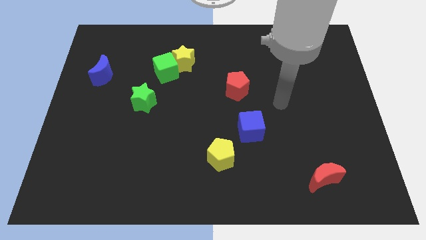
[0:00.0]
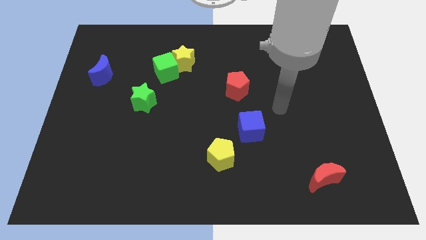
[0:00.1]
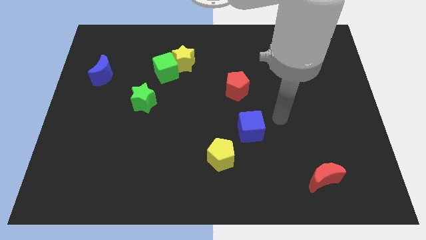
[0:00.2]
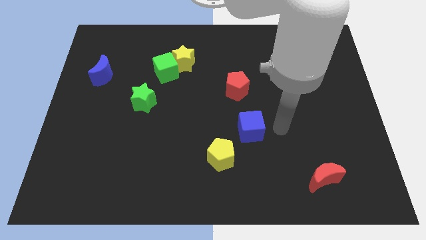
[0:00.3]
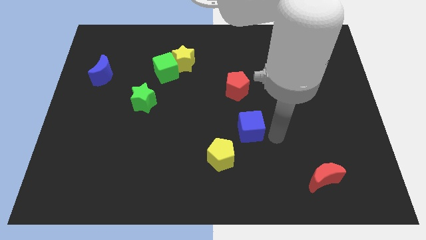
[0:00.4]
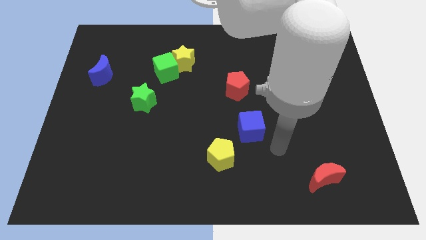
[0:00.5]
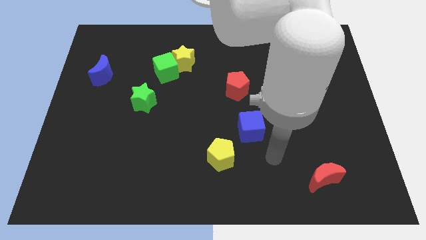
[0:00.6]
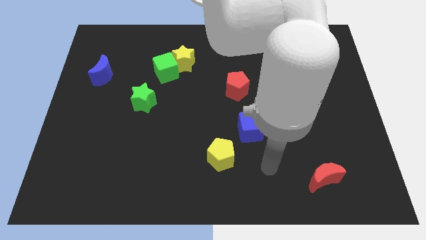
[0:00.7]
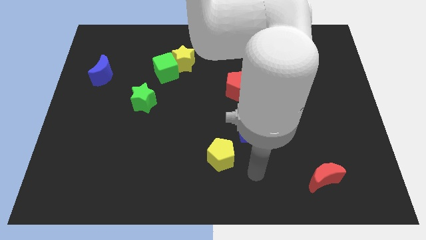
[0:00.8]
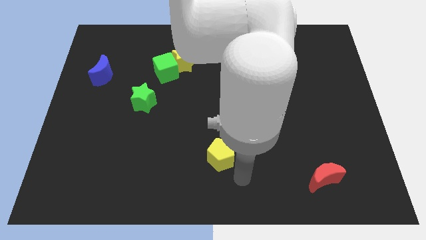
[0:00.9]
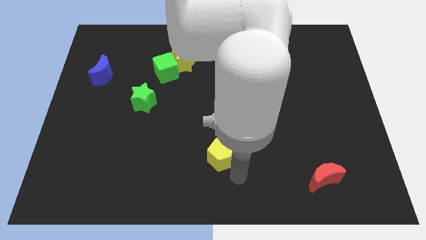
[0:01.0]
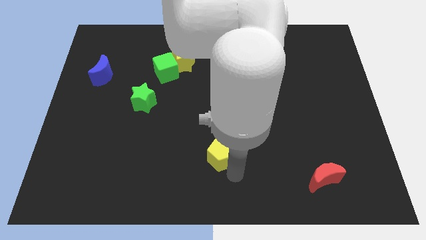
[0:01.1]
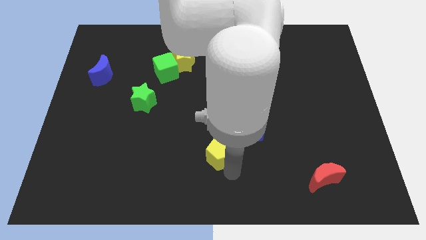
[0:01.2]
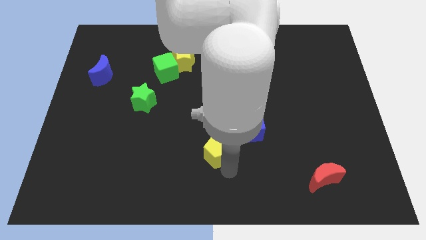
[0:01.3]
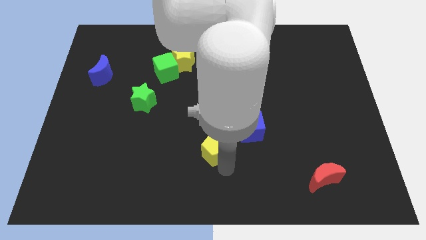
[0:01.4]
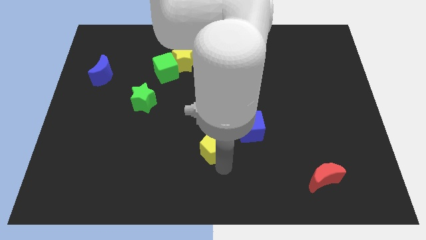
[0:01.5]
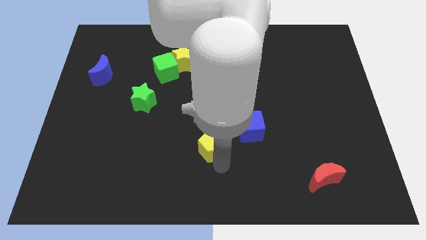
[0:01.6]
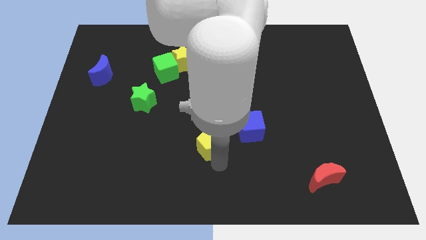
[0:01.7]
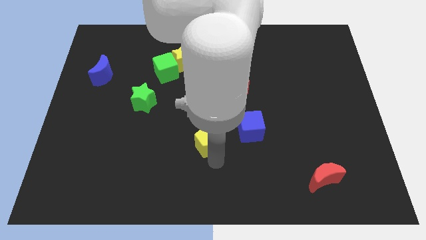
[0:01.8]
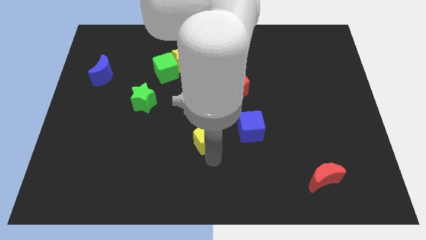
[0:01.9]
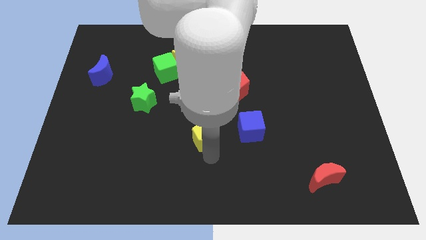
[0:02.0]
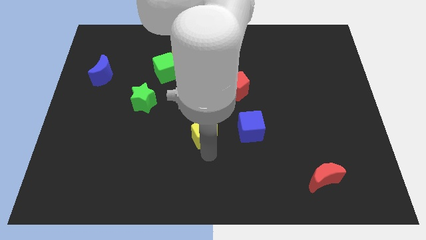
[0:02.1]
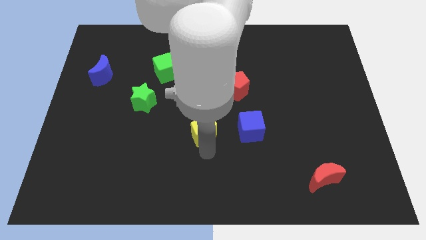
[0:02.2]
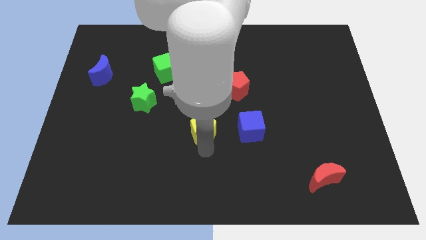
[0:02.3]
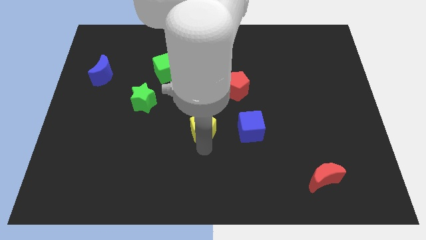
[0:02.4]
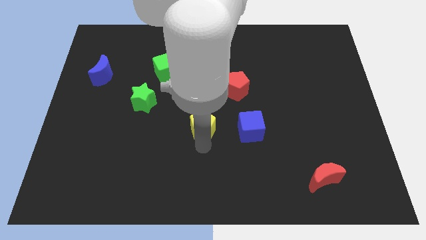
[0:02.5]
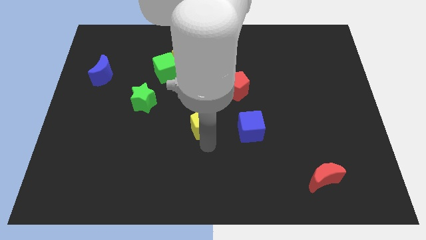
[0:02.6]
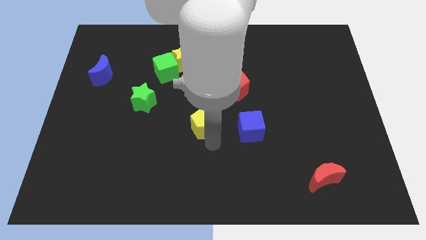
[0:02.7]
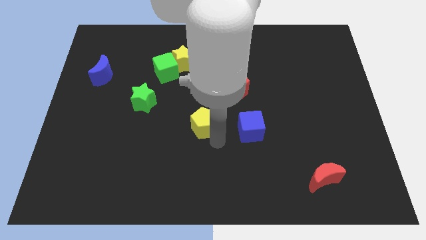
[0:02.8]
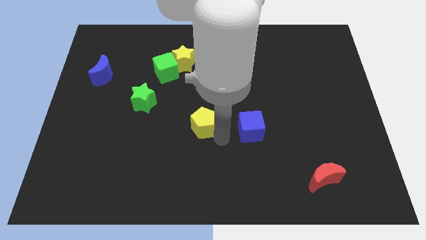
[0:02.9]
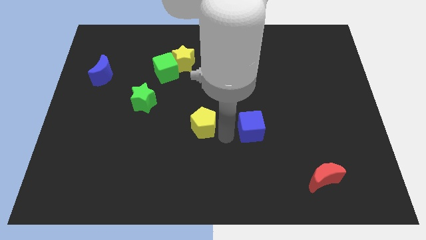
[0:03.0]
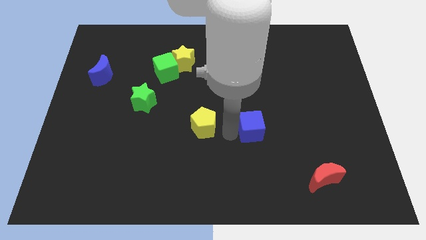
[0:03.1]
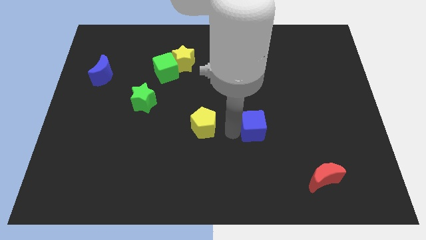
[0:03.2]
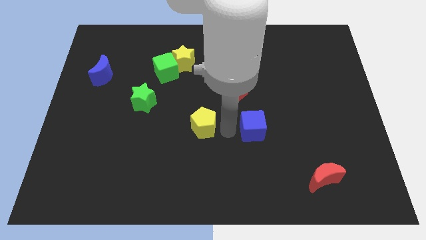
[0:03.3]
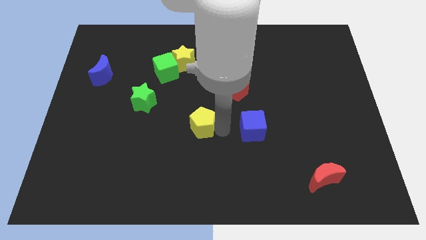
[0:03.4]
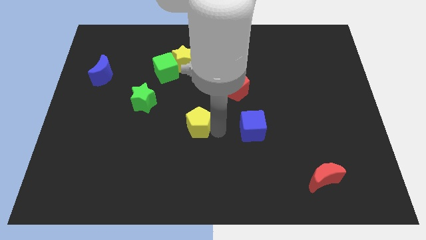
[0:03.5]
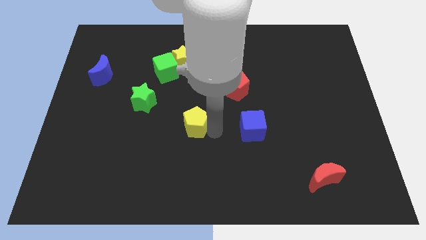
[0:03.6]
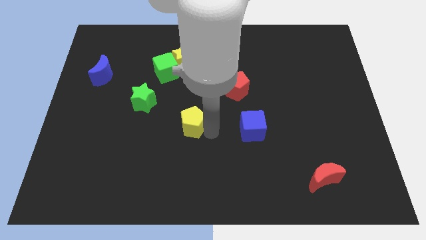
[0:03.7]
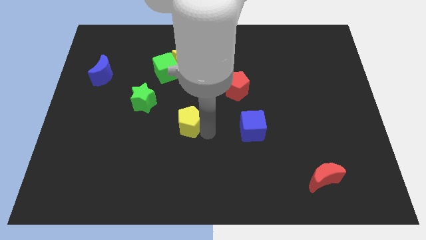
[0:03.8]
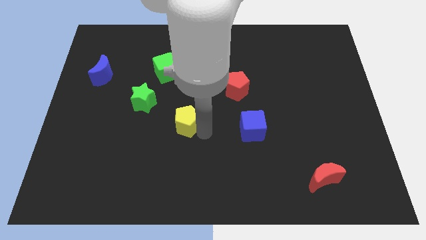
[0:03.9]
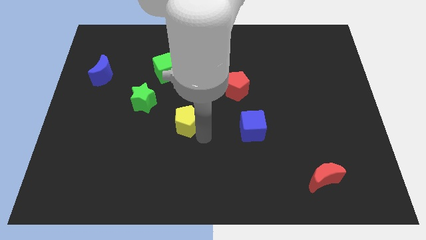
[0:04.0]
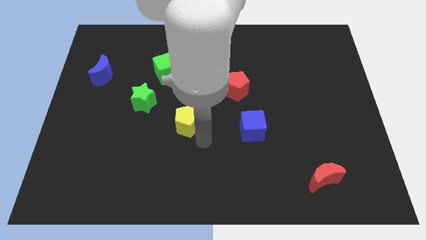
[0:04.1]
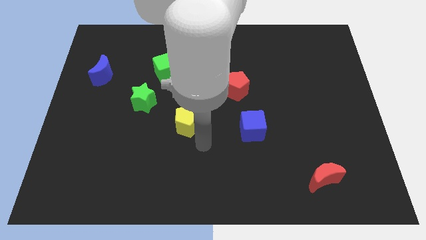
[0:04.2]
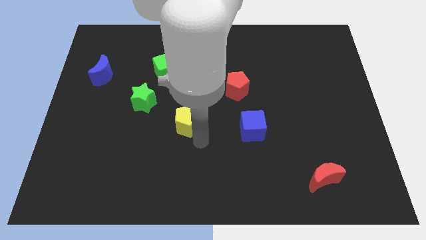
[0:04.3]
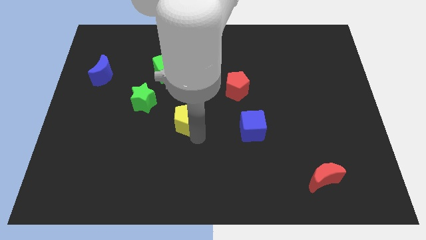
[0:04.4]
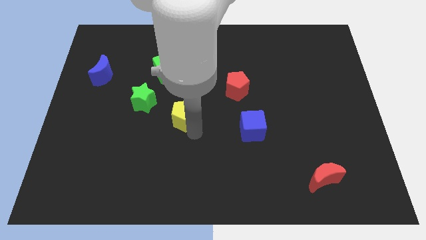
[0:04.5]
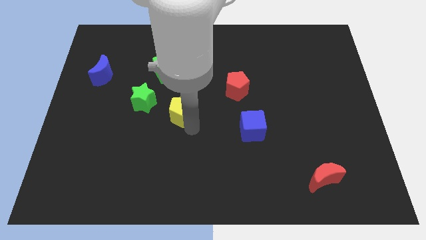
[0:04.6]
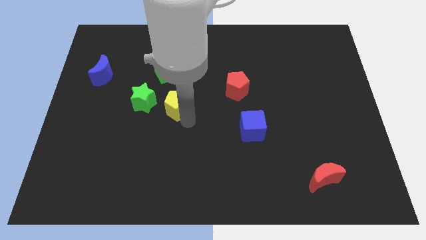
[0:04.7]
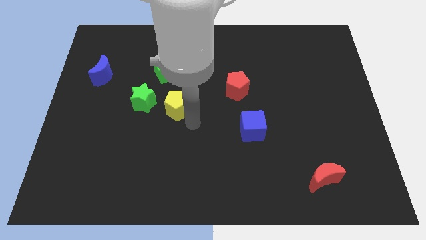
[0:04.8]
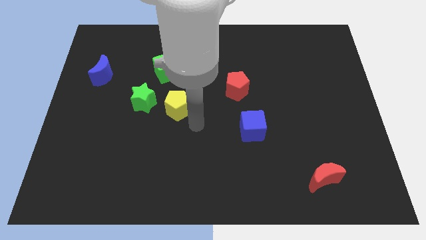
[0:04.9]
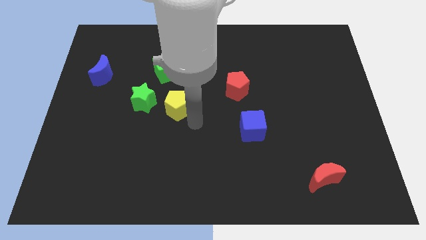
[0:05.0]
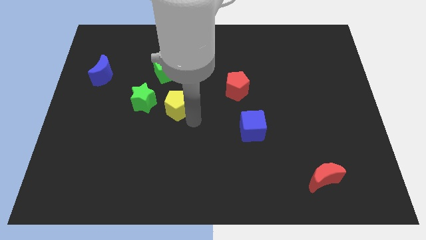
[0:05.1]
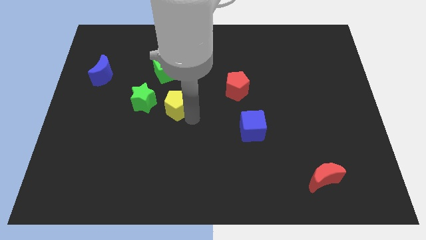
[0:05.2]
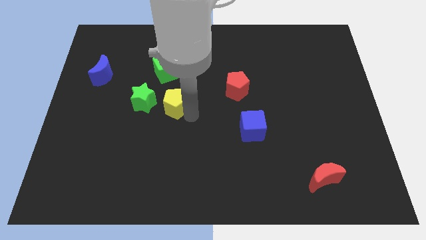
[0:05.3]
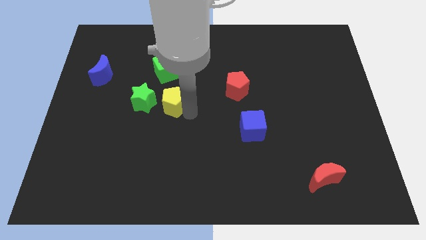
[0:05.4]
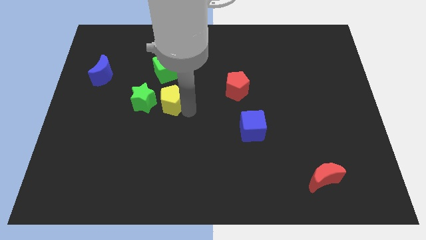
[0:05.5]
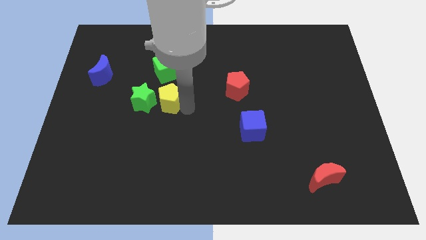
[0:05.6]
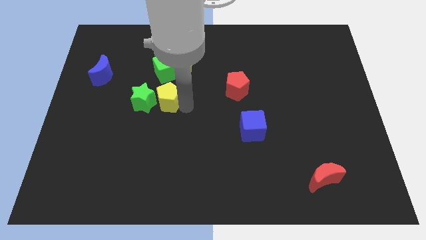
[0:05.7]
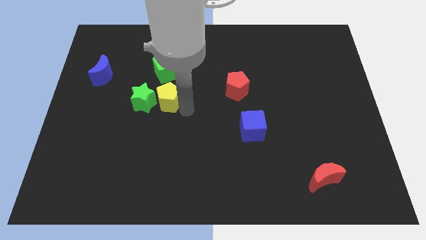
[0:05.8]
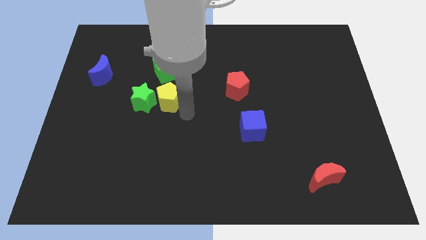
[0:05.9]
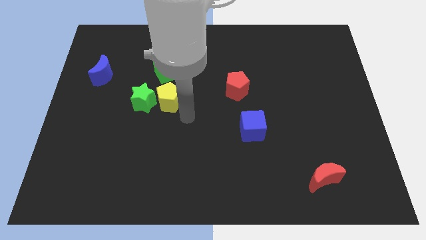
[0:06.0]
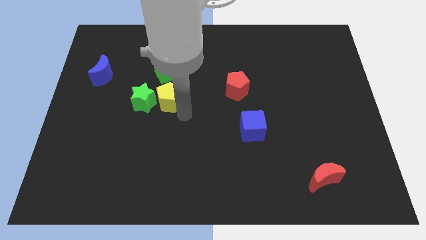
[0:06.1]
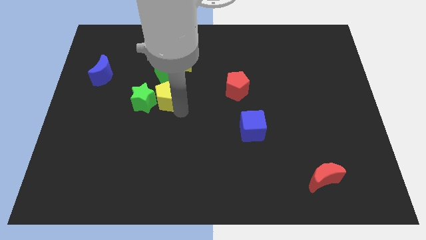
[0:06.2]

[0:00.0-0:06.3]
slide the yellow pentagon up and left

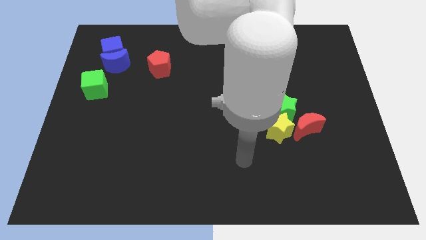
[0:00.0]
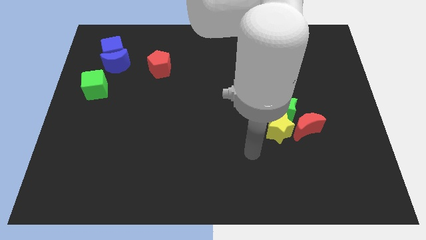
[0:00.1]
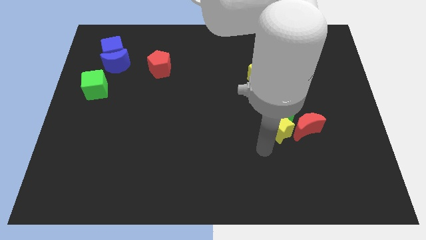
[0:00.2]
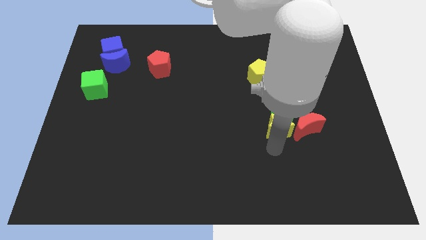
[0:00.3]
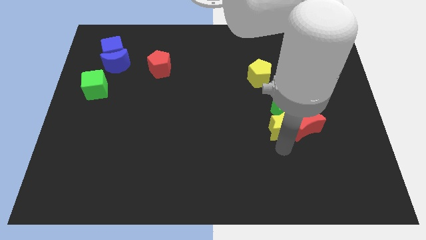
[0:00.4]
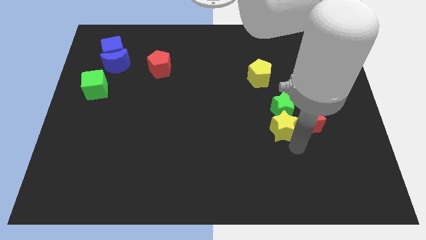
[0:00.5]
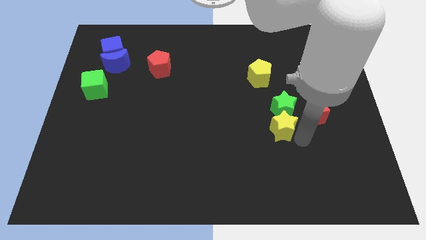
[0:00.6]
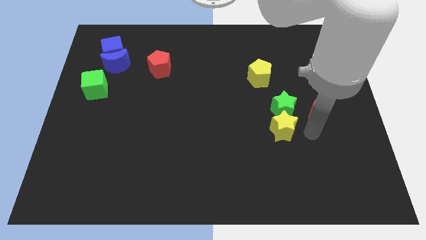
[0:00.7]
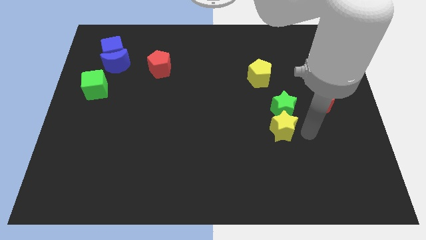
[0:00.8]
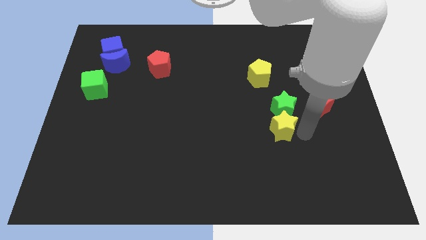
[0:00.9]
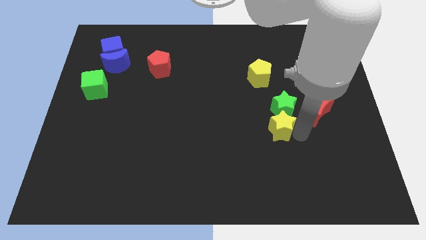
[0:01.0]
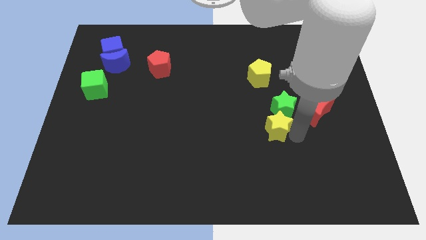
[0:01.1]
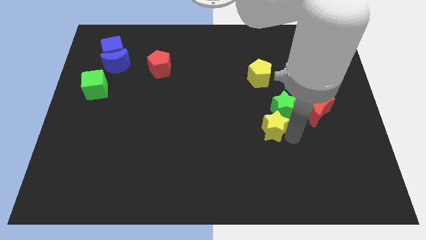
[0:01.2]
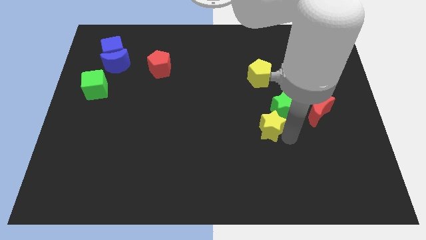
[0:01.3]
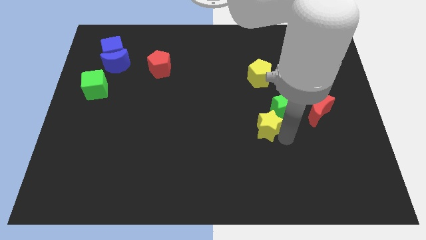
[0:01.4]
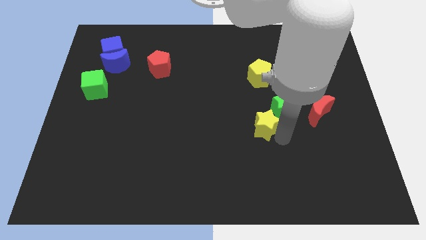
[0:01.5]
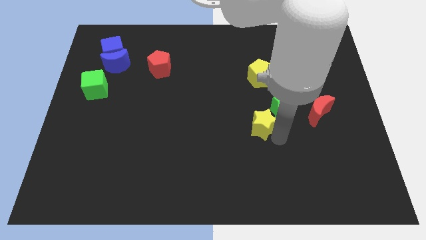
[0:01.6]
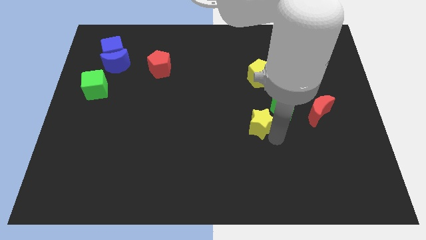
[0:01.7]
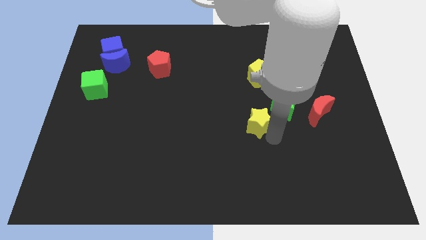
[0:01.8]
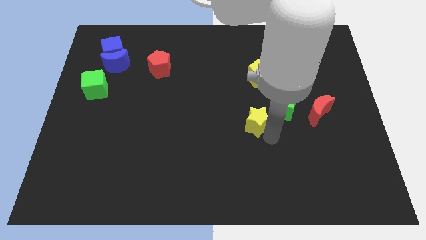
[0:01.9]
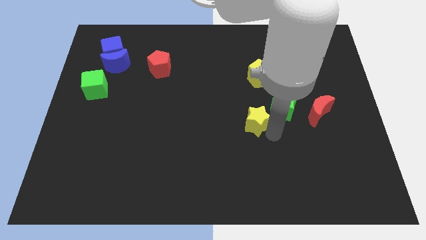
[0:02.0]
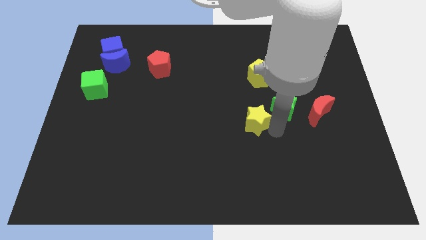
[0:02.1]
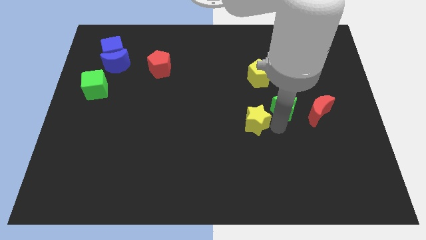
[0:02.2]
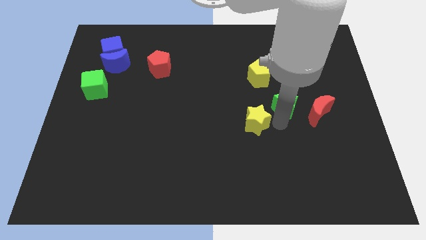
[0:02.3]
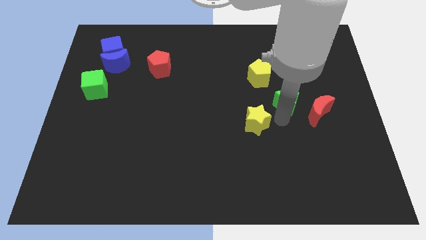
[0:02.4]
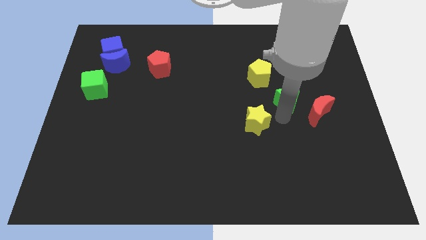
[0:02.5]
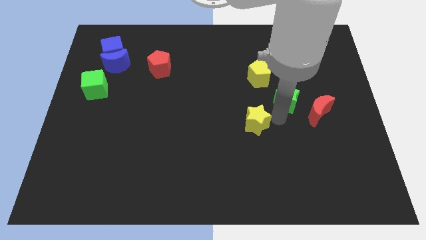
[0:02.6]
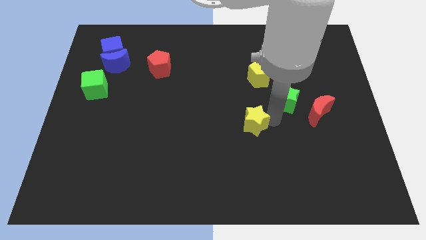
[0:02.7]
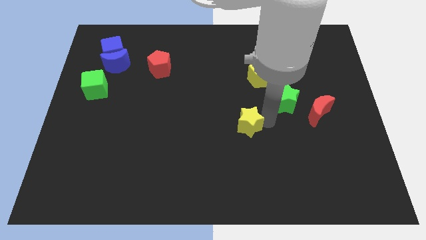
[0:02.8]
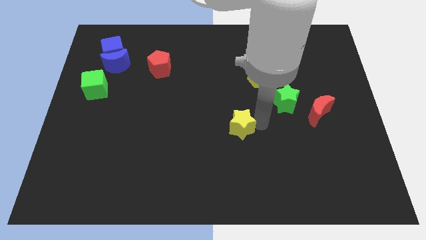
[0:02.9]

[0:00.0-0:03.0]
slightly push the yellow star to the left
